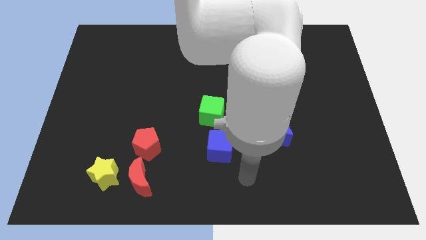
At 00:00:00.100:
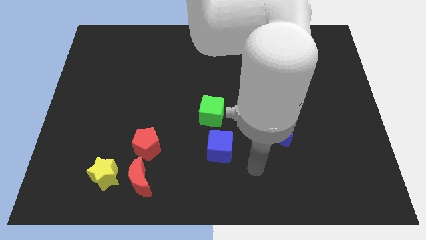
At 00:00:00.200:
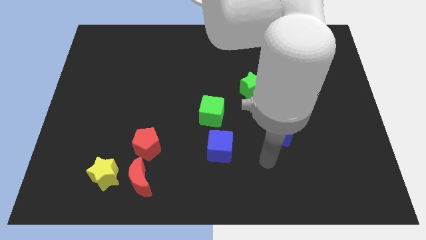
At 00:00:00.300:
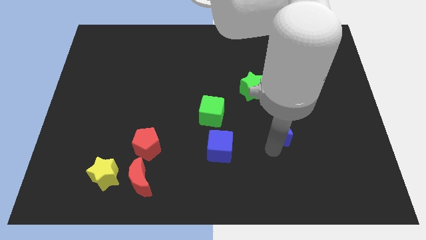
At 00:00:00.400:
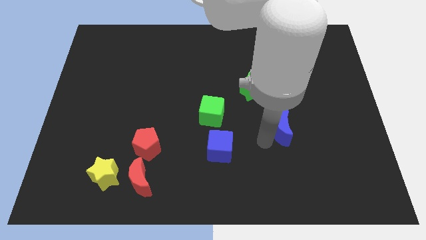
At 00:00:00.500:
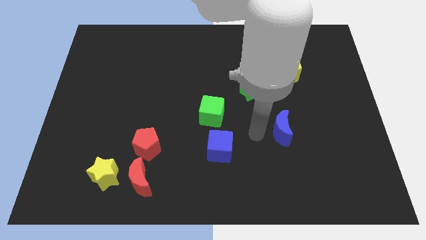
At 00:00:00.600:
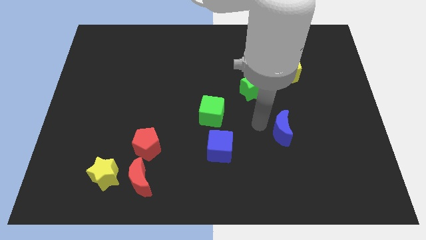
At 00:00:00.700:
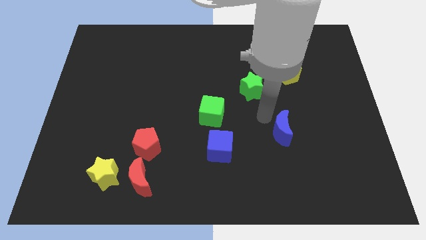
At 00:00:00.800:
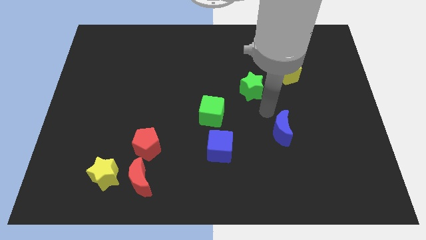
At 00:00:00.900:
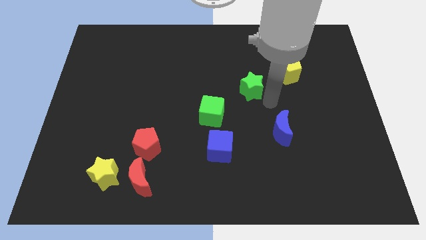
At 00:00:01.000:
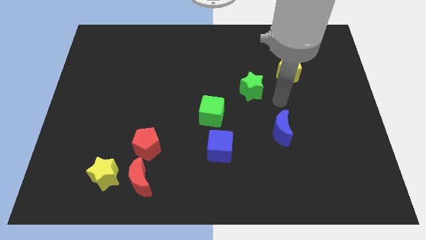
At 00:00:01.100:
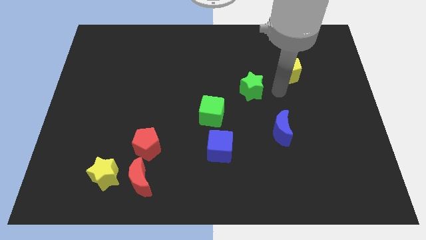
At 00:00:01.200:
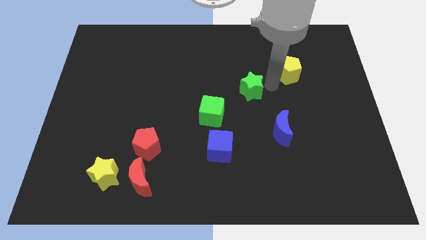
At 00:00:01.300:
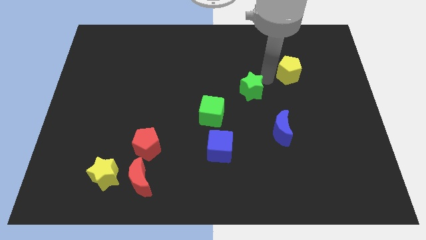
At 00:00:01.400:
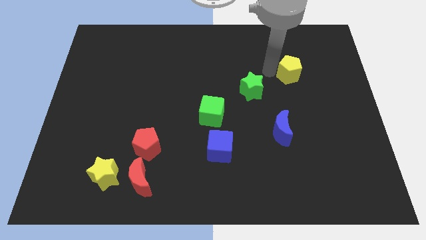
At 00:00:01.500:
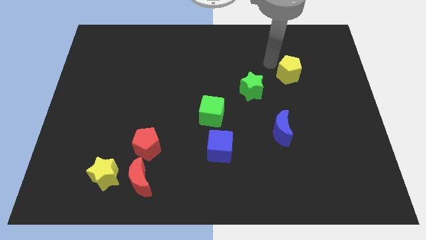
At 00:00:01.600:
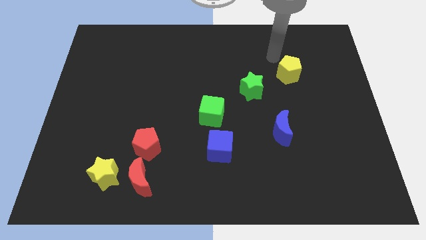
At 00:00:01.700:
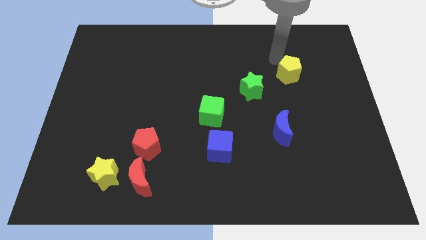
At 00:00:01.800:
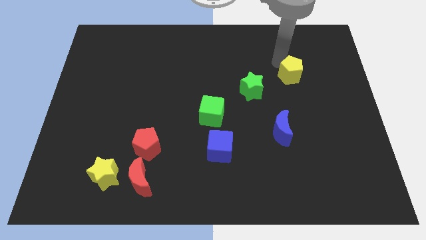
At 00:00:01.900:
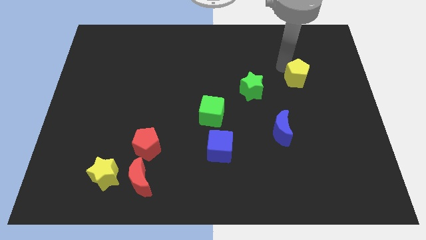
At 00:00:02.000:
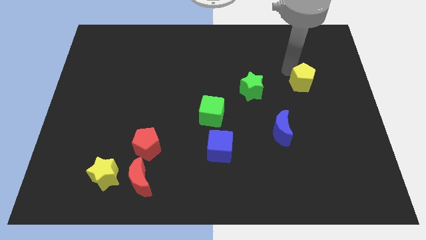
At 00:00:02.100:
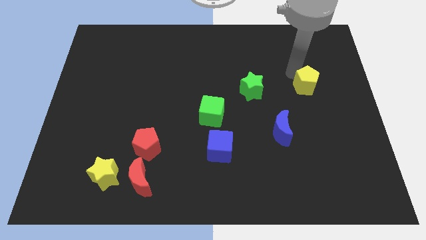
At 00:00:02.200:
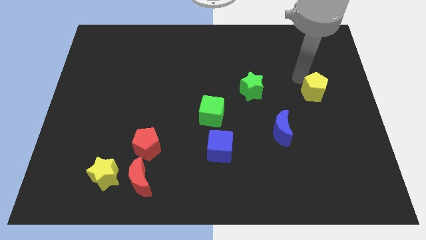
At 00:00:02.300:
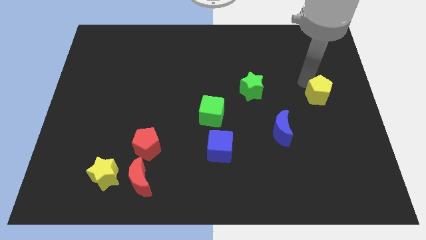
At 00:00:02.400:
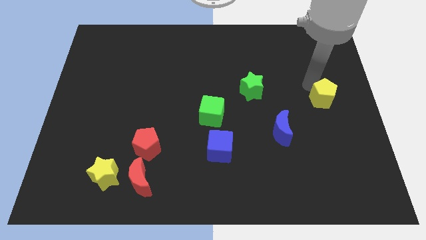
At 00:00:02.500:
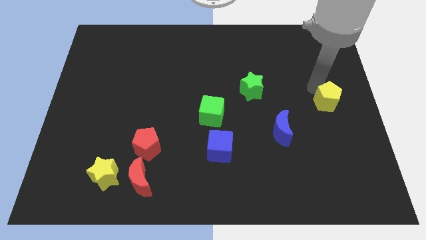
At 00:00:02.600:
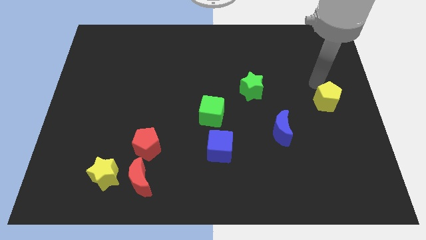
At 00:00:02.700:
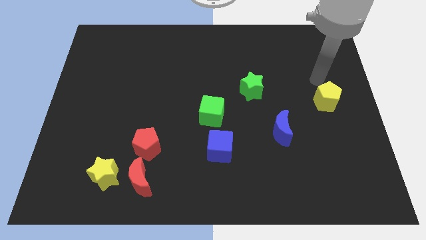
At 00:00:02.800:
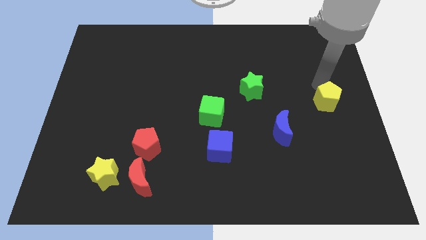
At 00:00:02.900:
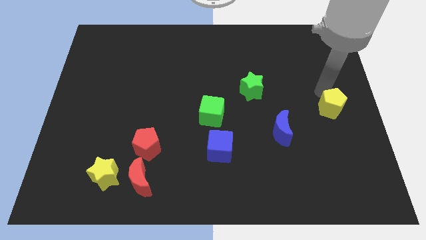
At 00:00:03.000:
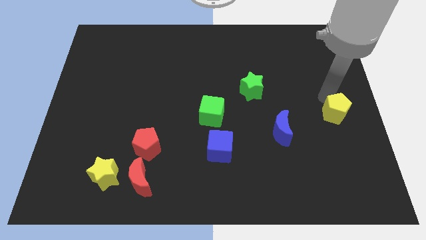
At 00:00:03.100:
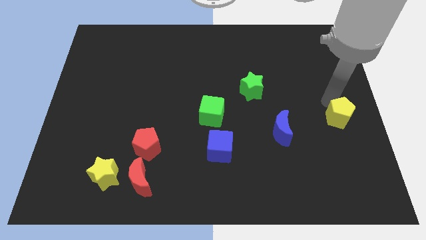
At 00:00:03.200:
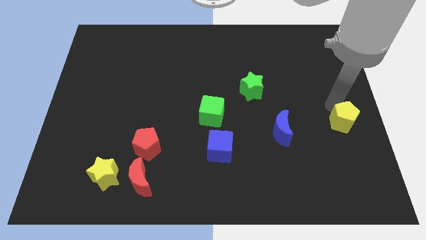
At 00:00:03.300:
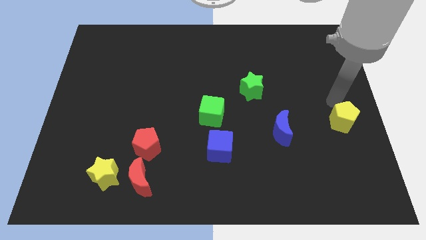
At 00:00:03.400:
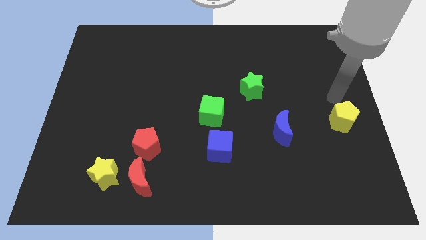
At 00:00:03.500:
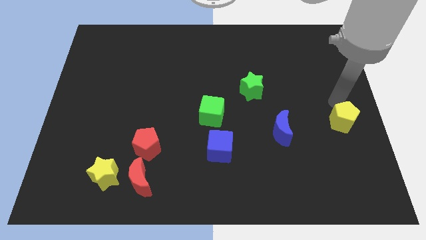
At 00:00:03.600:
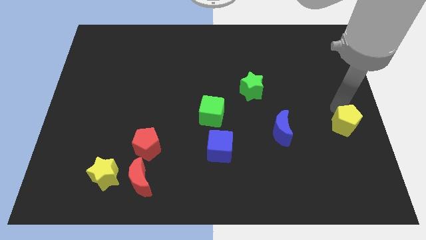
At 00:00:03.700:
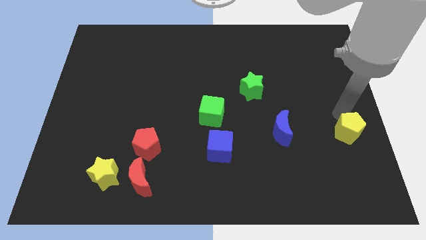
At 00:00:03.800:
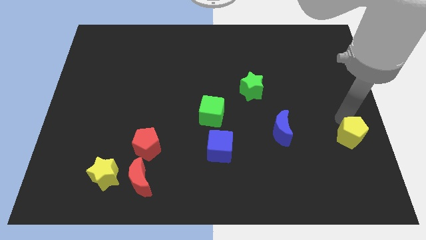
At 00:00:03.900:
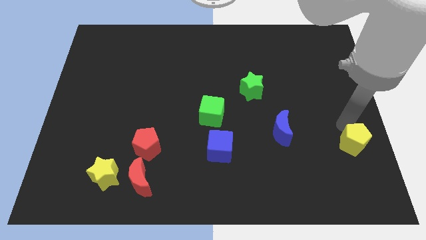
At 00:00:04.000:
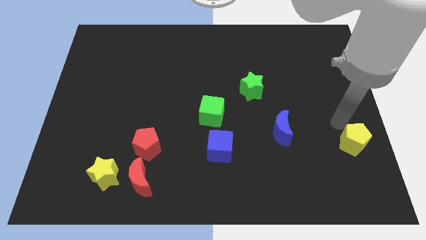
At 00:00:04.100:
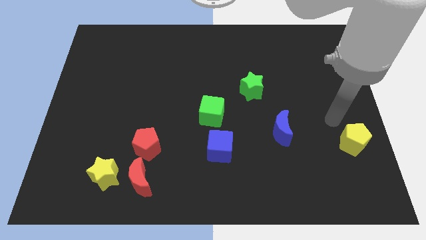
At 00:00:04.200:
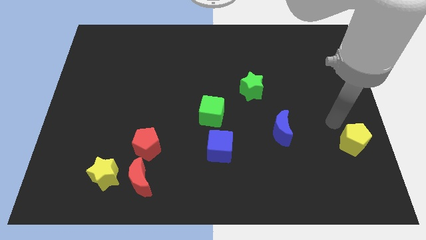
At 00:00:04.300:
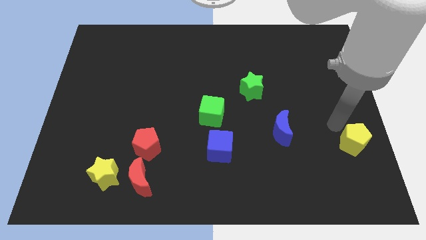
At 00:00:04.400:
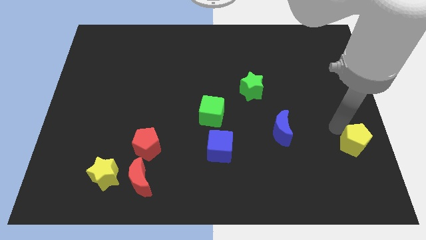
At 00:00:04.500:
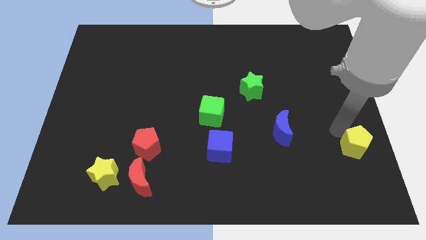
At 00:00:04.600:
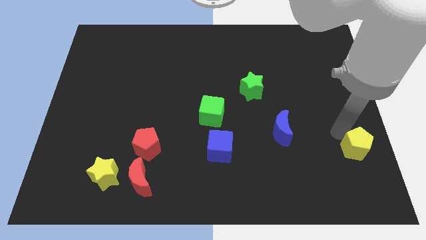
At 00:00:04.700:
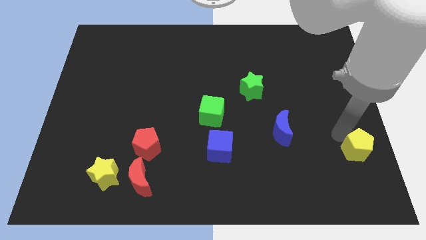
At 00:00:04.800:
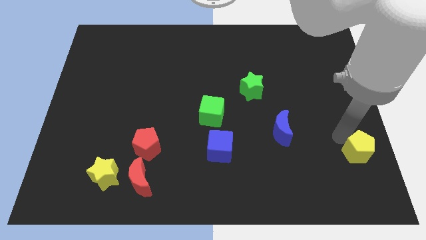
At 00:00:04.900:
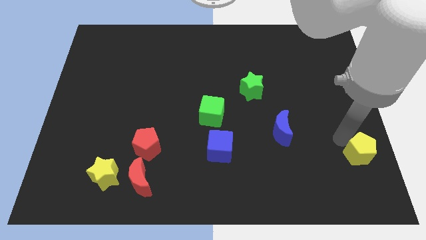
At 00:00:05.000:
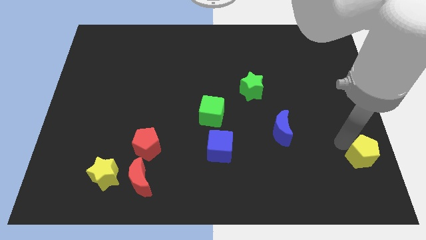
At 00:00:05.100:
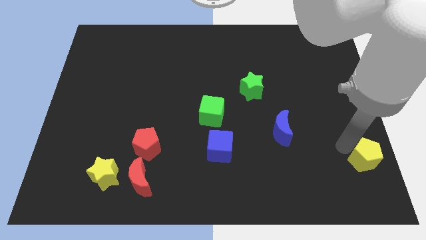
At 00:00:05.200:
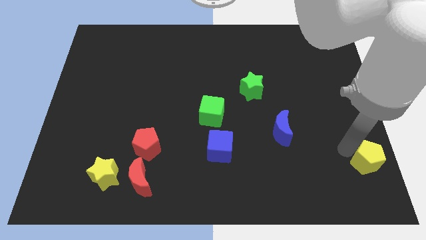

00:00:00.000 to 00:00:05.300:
put the yellow pentagon to the lower right corner

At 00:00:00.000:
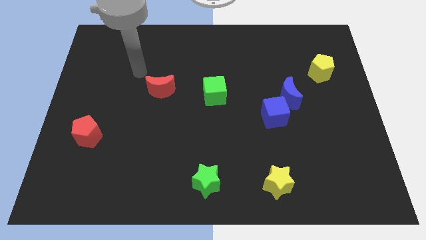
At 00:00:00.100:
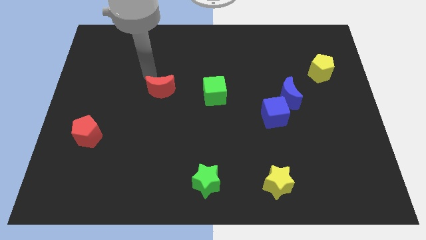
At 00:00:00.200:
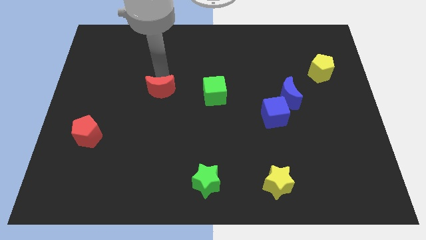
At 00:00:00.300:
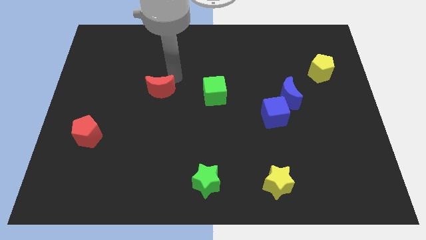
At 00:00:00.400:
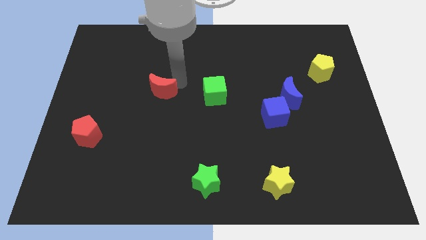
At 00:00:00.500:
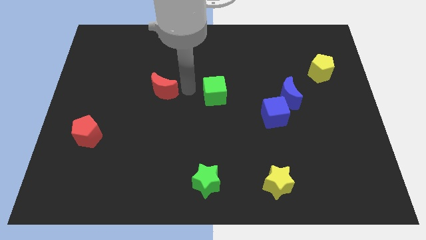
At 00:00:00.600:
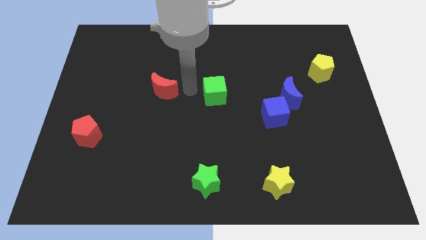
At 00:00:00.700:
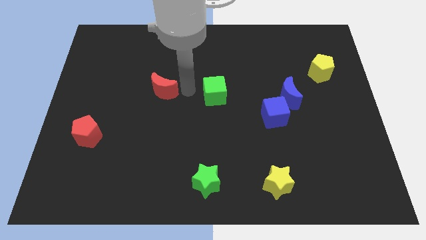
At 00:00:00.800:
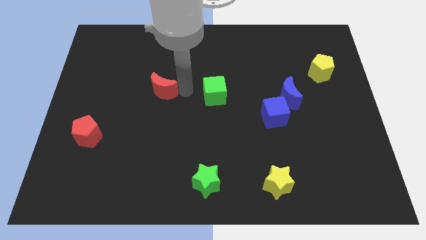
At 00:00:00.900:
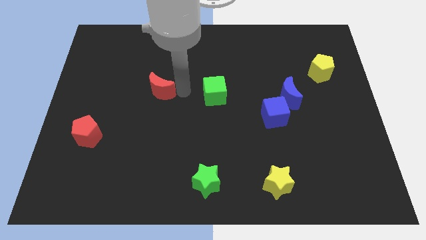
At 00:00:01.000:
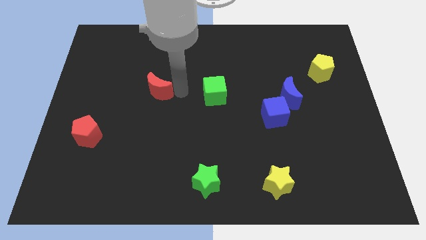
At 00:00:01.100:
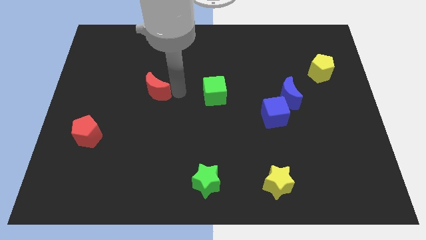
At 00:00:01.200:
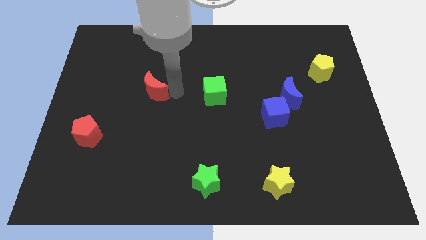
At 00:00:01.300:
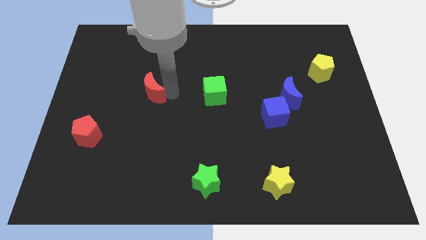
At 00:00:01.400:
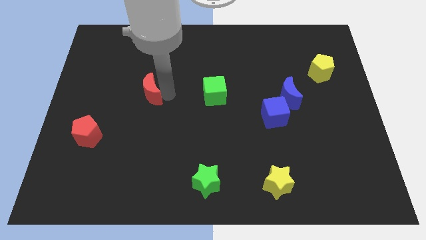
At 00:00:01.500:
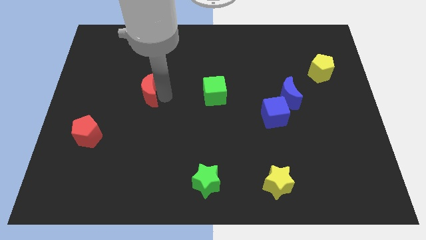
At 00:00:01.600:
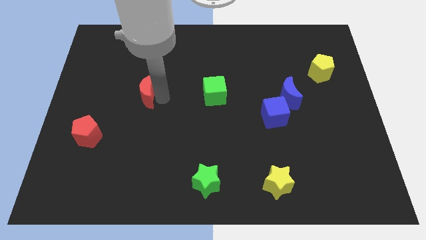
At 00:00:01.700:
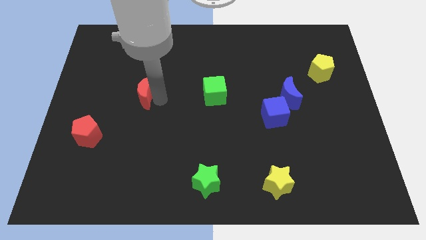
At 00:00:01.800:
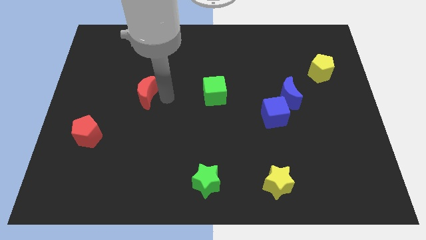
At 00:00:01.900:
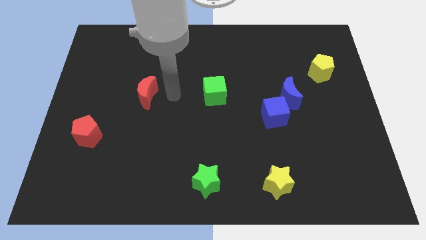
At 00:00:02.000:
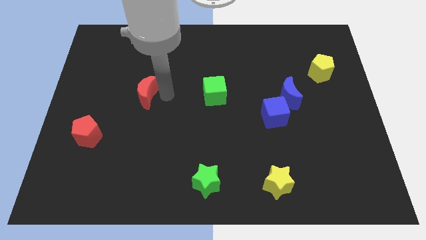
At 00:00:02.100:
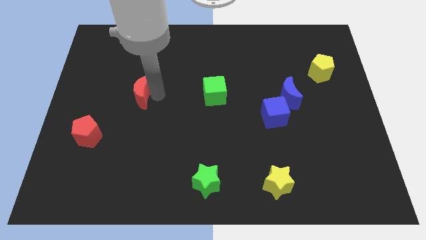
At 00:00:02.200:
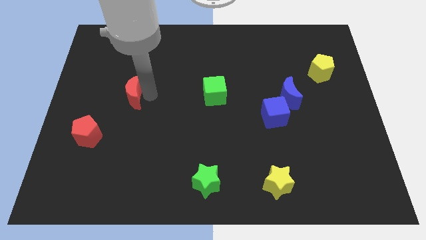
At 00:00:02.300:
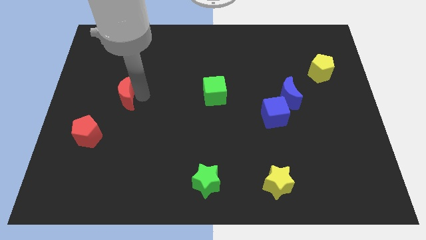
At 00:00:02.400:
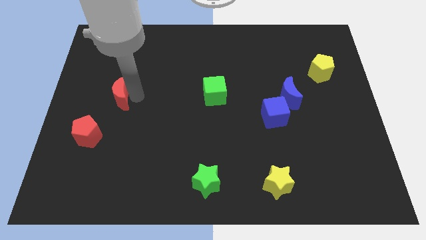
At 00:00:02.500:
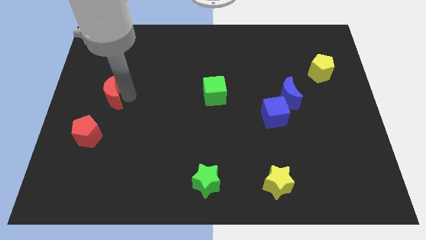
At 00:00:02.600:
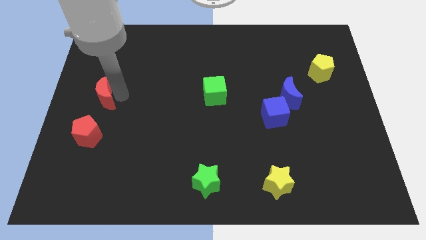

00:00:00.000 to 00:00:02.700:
slide the red moon to the left side
